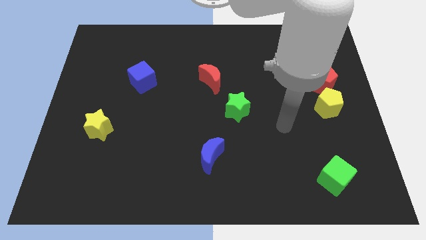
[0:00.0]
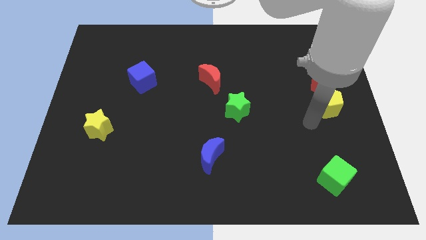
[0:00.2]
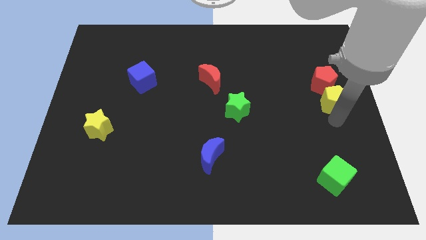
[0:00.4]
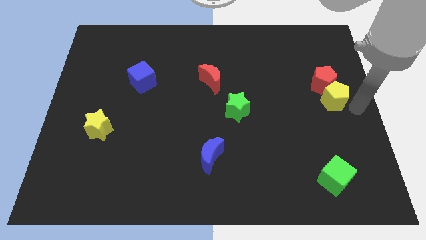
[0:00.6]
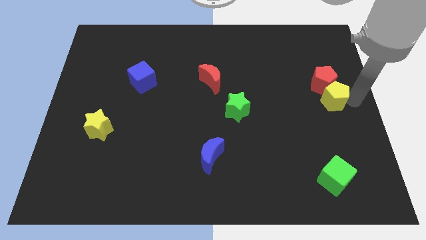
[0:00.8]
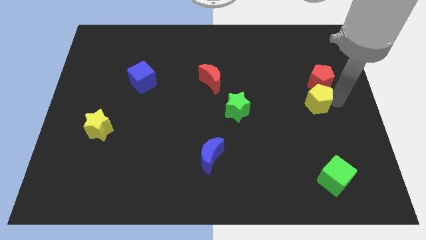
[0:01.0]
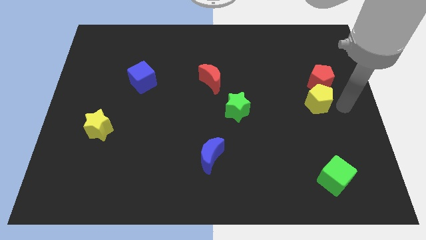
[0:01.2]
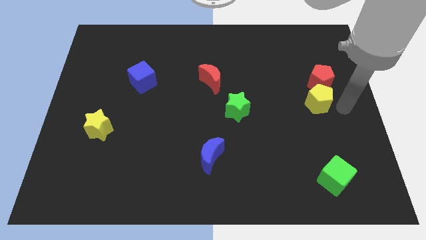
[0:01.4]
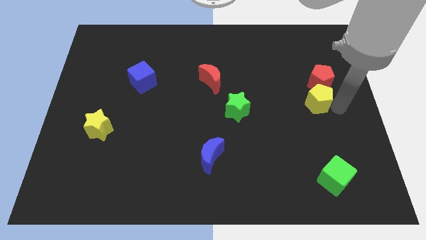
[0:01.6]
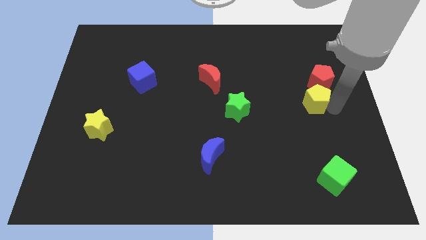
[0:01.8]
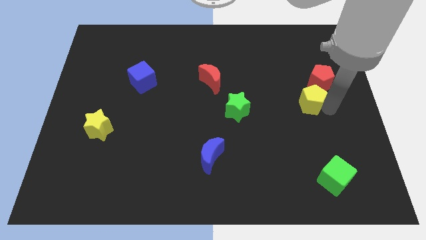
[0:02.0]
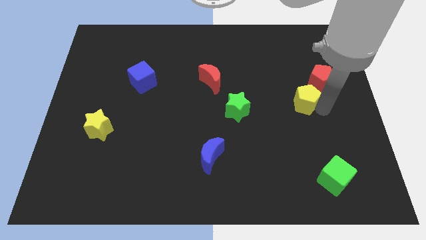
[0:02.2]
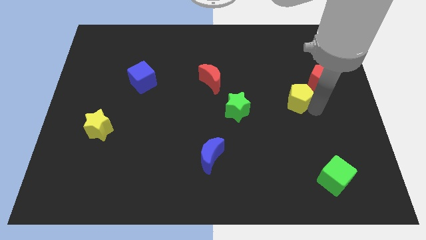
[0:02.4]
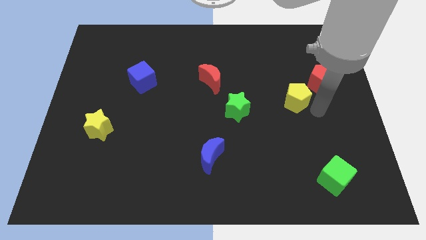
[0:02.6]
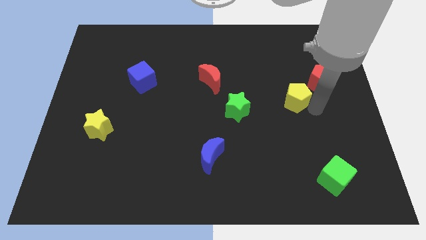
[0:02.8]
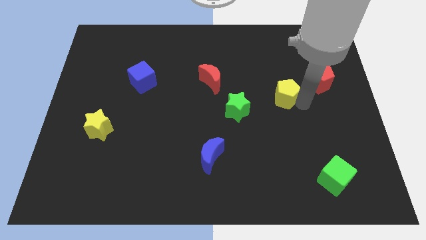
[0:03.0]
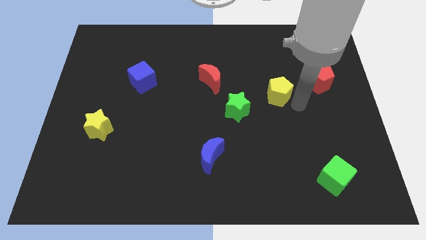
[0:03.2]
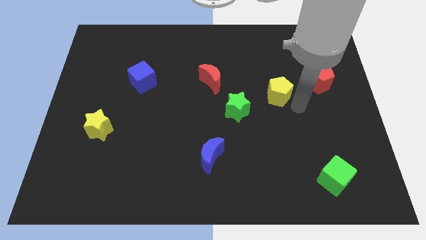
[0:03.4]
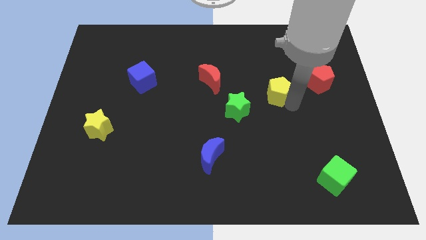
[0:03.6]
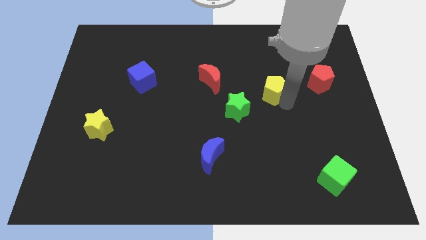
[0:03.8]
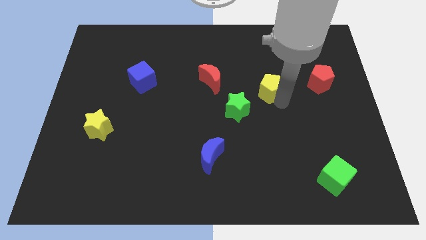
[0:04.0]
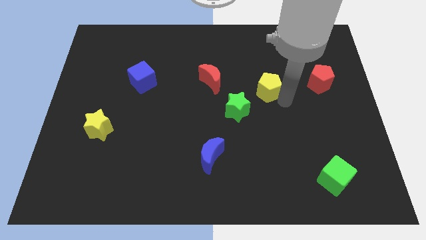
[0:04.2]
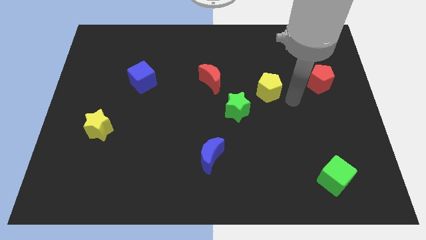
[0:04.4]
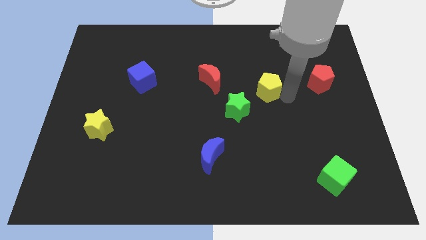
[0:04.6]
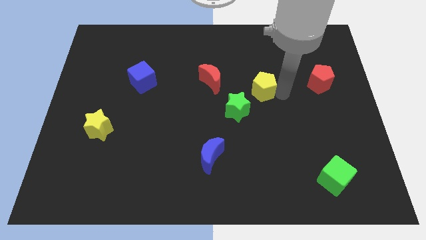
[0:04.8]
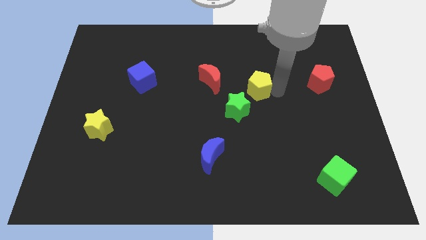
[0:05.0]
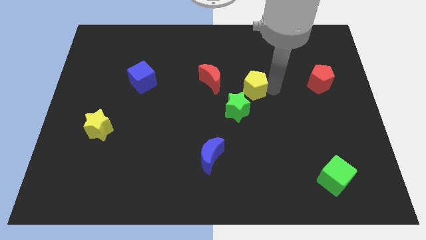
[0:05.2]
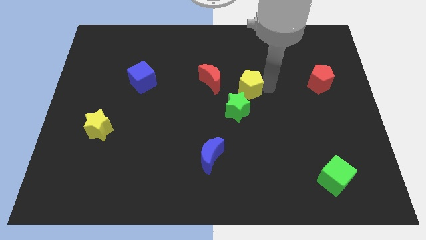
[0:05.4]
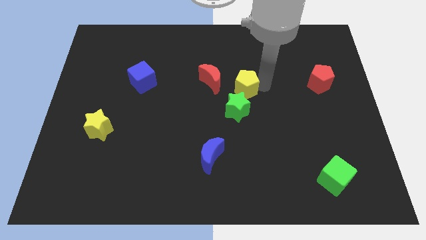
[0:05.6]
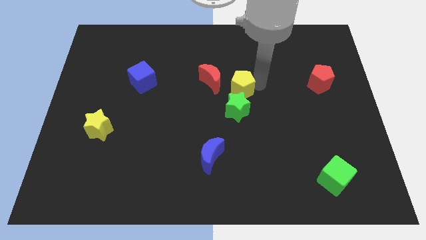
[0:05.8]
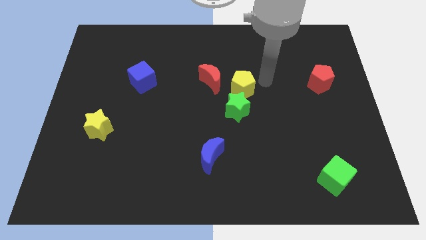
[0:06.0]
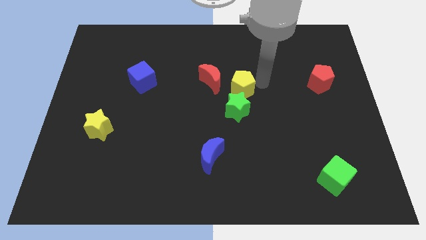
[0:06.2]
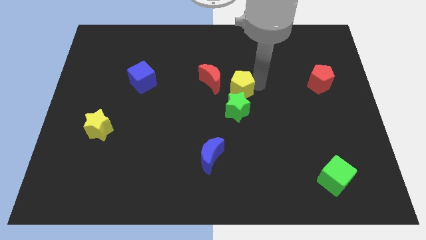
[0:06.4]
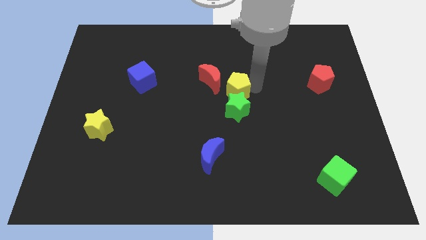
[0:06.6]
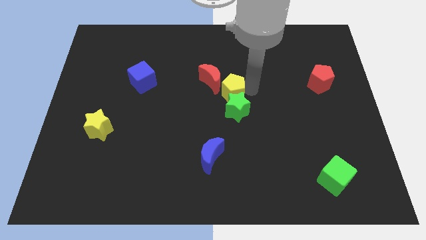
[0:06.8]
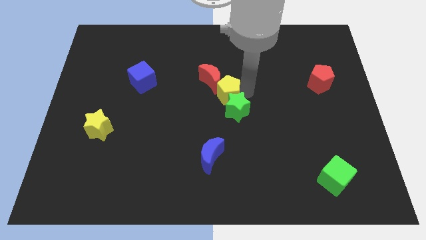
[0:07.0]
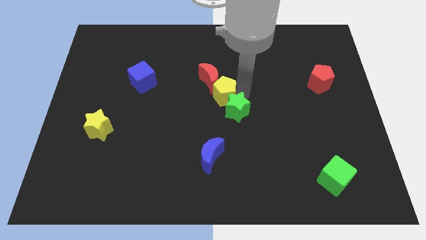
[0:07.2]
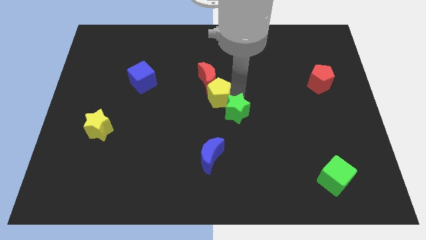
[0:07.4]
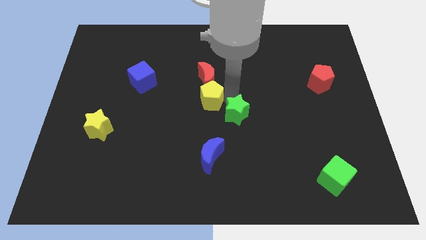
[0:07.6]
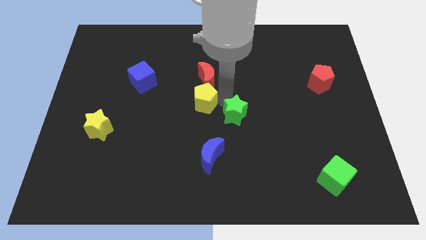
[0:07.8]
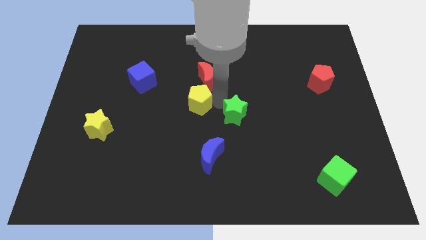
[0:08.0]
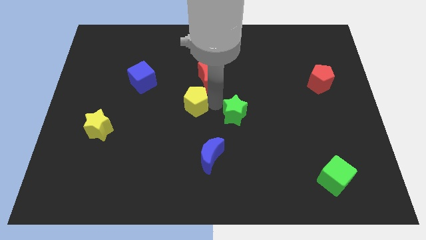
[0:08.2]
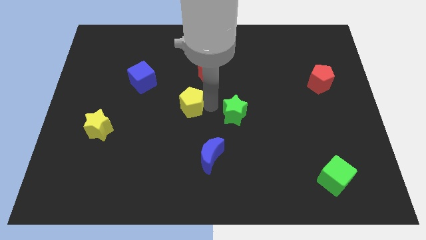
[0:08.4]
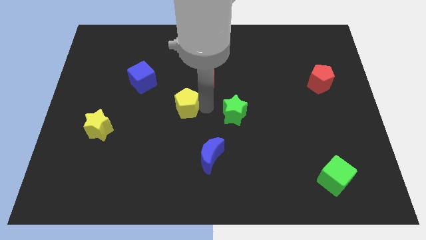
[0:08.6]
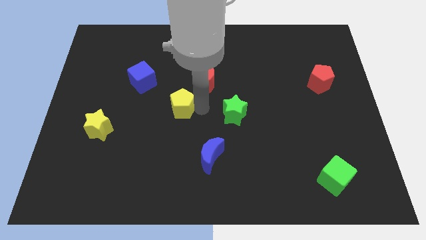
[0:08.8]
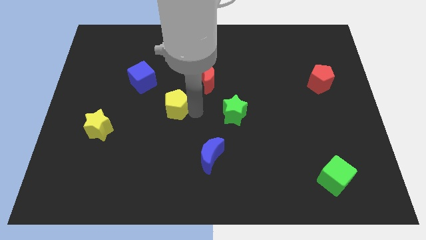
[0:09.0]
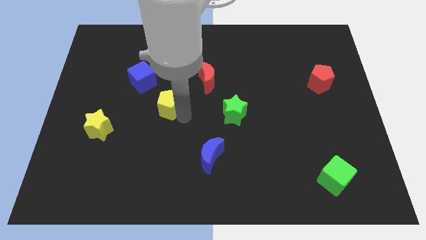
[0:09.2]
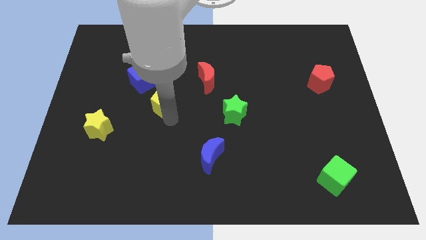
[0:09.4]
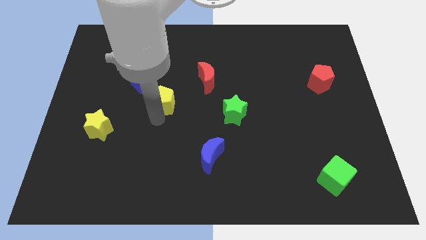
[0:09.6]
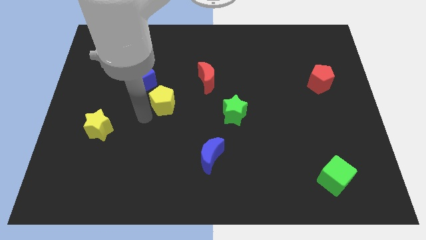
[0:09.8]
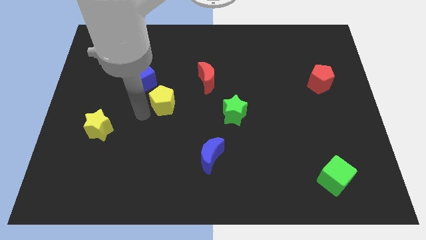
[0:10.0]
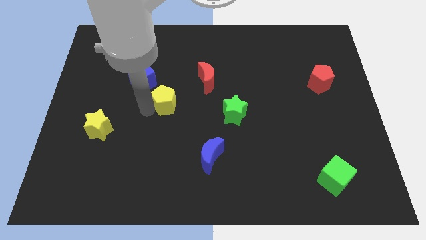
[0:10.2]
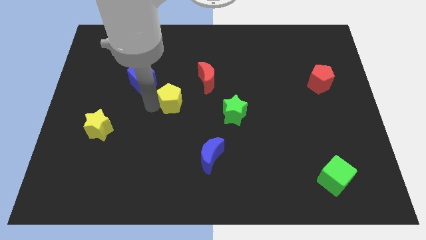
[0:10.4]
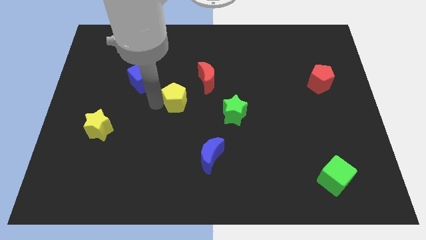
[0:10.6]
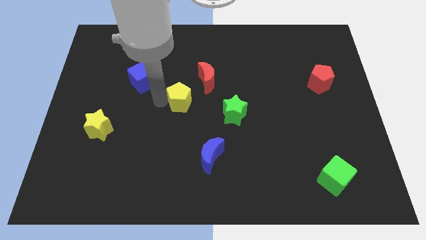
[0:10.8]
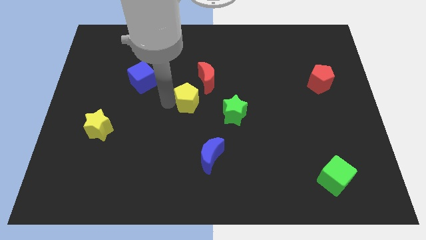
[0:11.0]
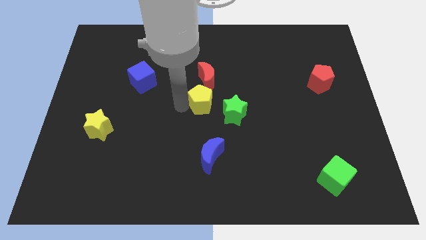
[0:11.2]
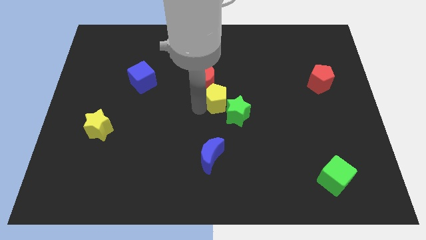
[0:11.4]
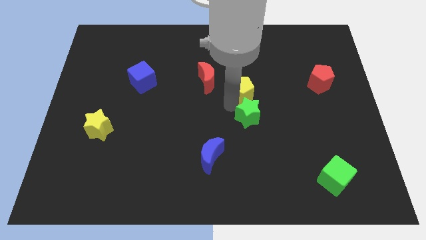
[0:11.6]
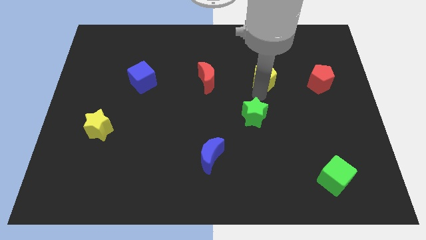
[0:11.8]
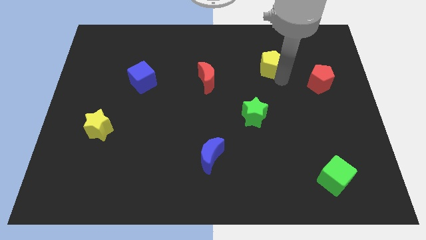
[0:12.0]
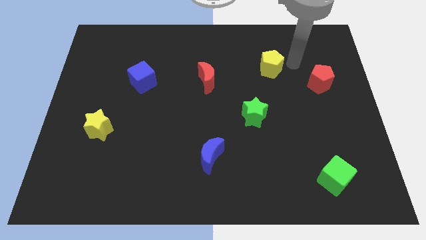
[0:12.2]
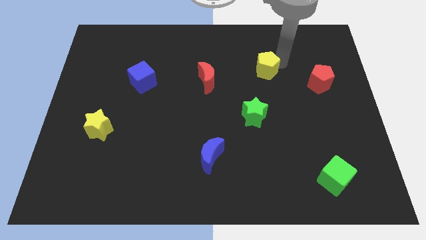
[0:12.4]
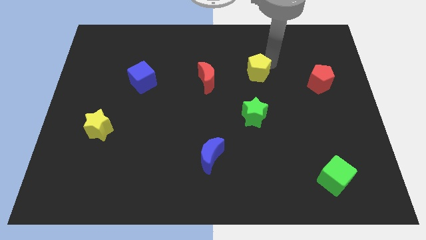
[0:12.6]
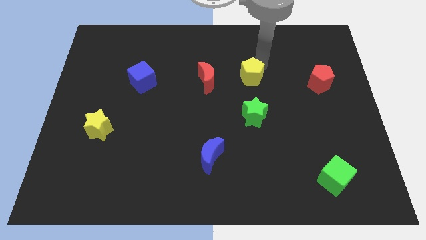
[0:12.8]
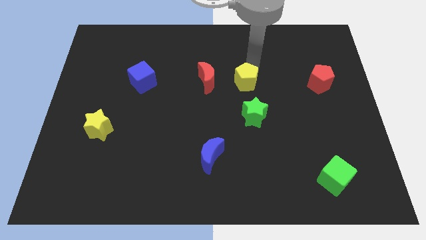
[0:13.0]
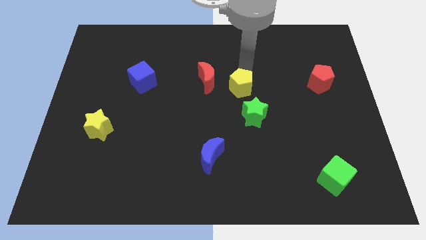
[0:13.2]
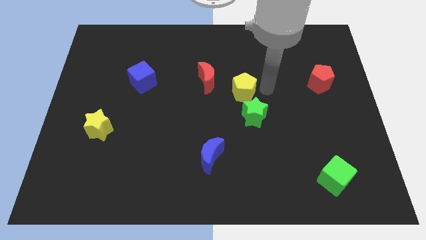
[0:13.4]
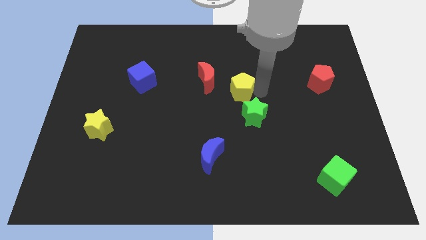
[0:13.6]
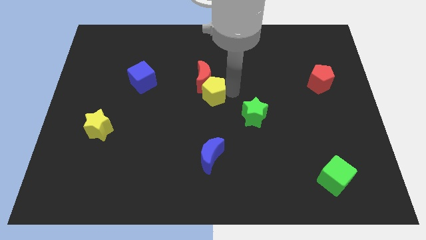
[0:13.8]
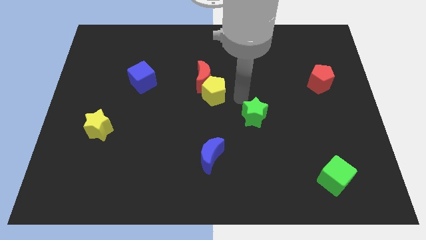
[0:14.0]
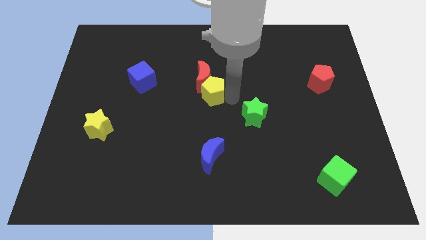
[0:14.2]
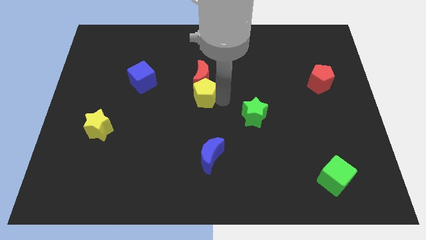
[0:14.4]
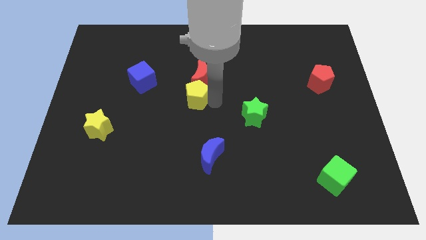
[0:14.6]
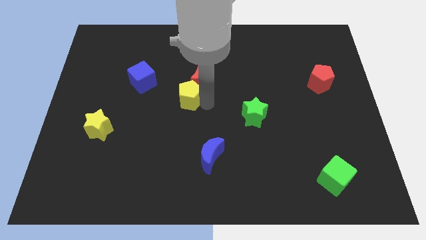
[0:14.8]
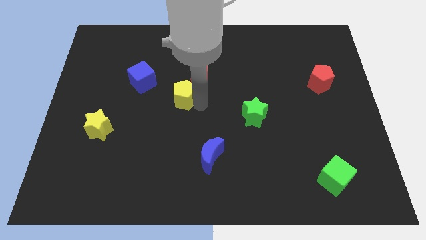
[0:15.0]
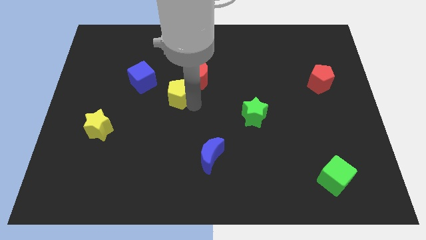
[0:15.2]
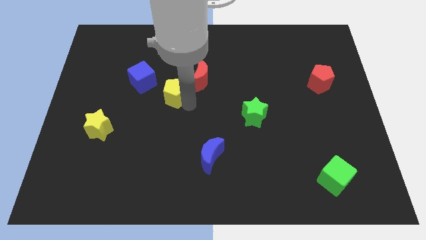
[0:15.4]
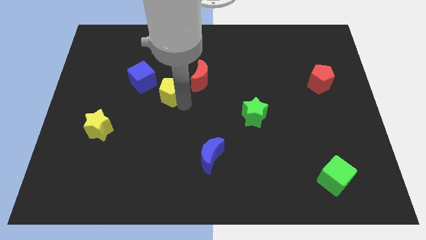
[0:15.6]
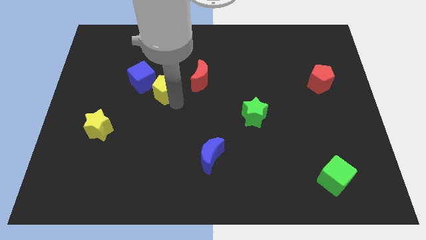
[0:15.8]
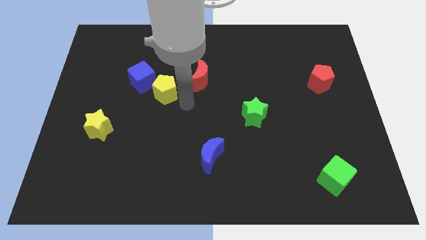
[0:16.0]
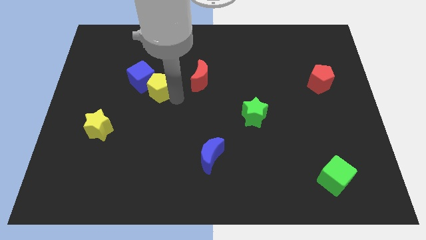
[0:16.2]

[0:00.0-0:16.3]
slide the yellow pentagon towards the blue cube
